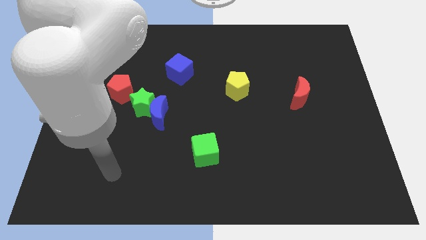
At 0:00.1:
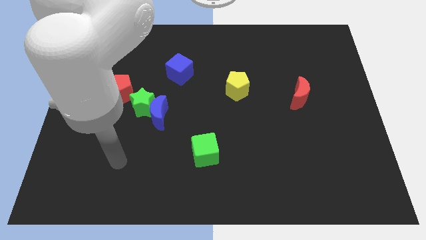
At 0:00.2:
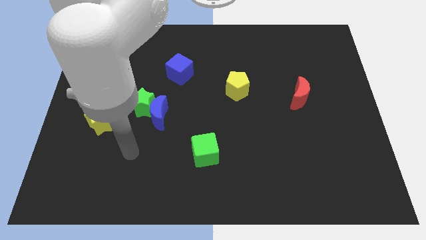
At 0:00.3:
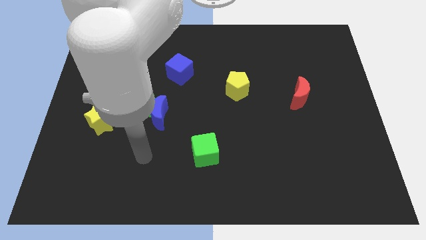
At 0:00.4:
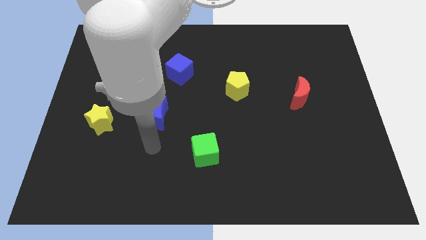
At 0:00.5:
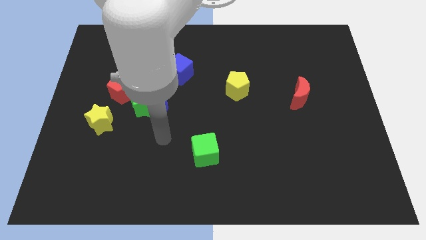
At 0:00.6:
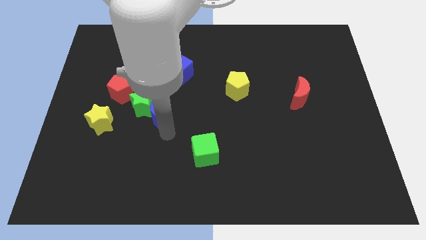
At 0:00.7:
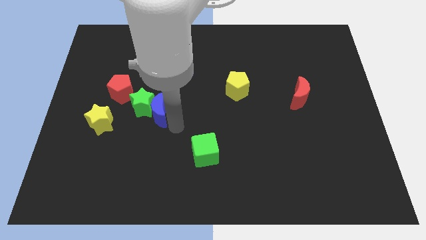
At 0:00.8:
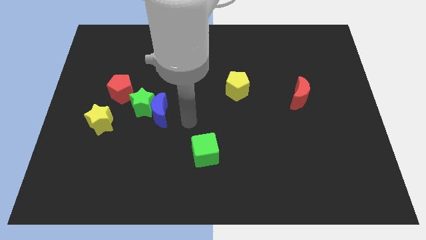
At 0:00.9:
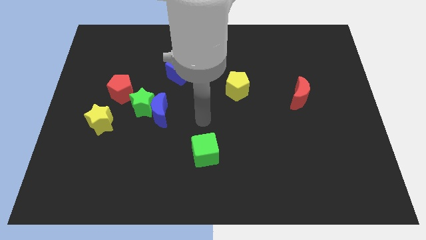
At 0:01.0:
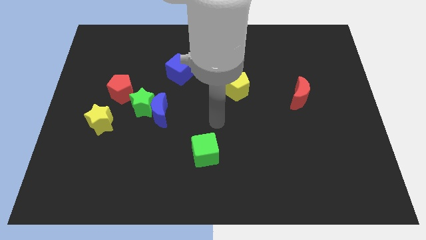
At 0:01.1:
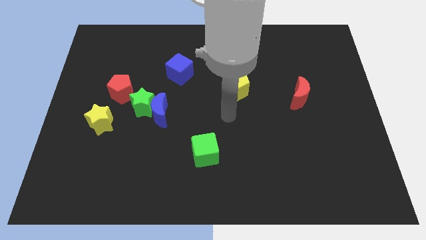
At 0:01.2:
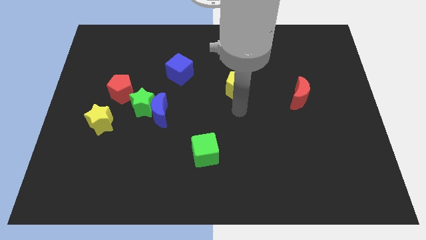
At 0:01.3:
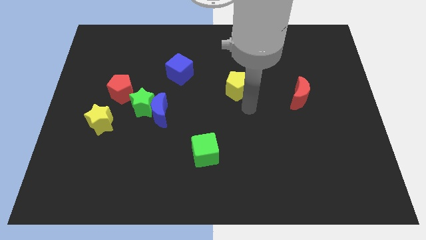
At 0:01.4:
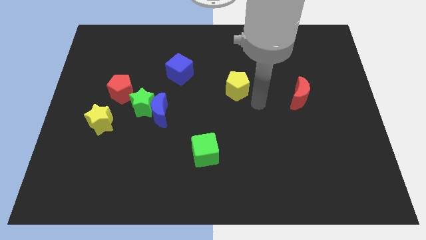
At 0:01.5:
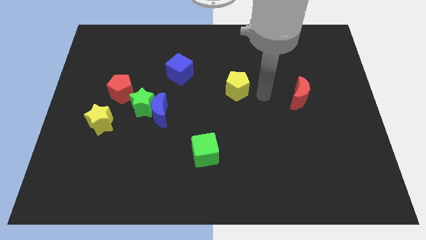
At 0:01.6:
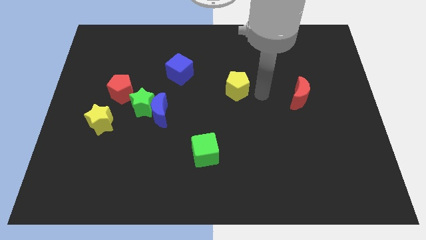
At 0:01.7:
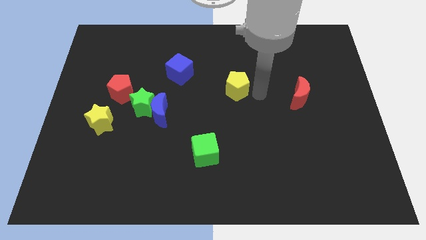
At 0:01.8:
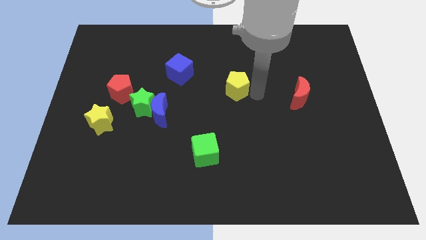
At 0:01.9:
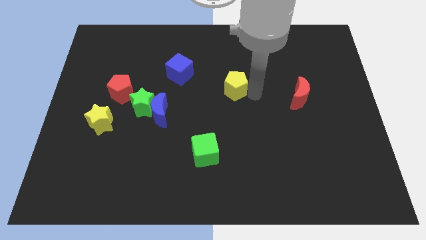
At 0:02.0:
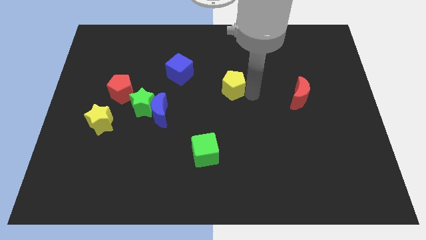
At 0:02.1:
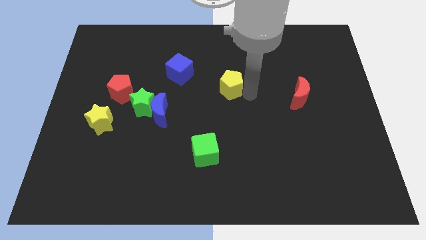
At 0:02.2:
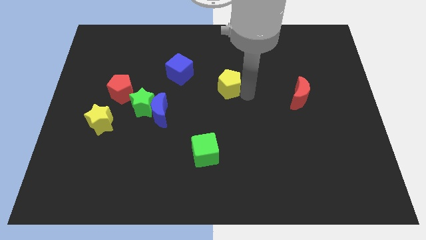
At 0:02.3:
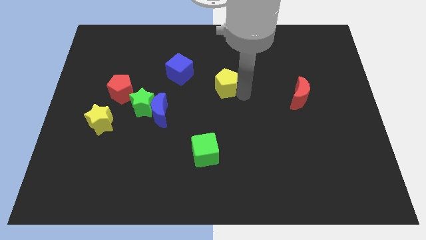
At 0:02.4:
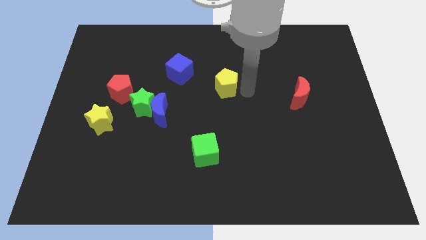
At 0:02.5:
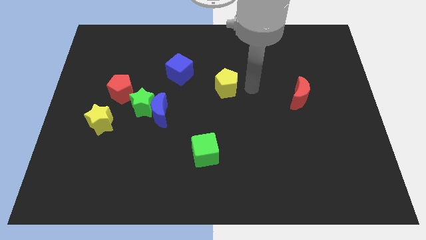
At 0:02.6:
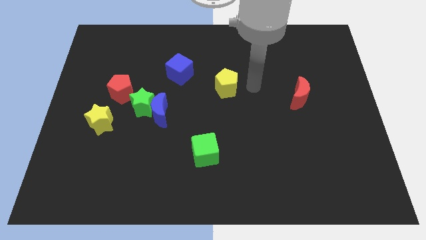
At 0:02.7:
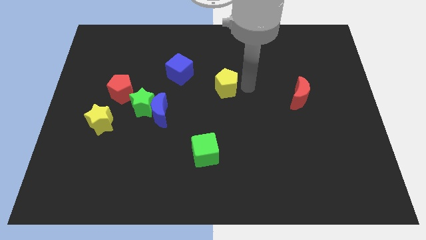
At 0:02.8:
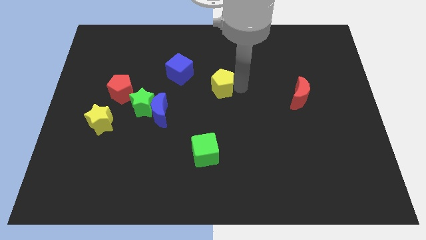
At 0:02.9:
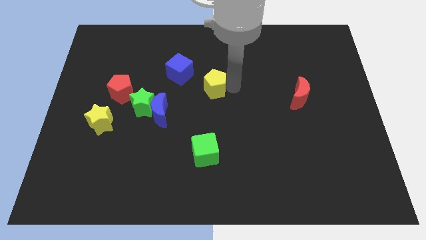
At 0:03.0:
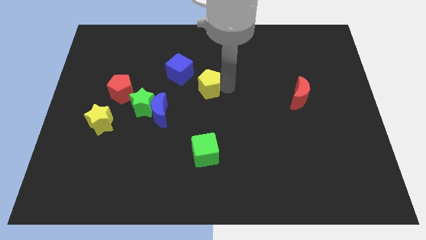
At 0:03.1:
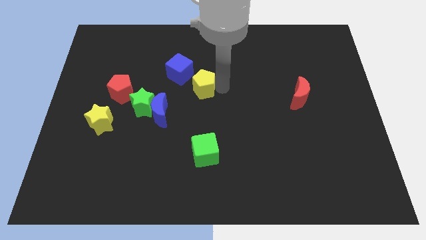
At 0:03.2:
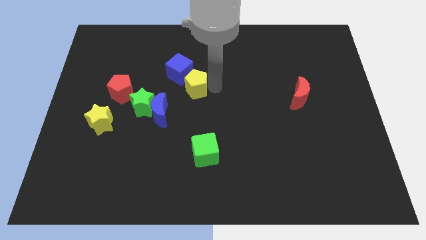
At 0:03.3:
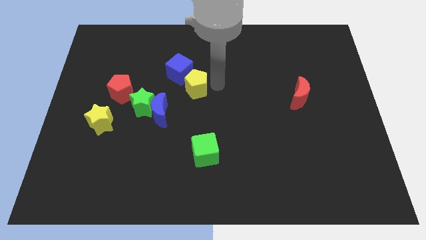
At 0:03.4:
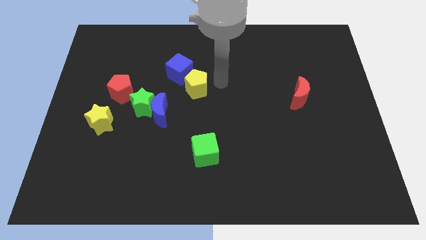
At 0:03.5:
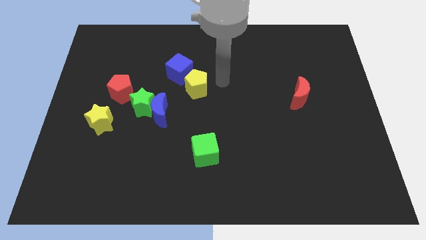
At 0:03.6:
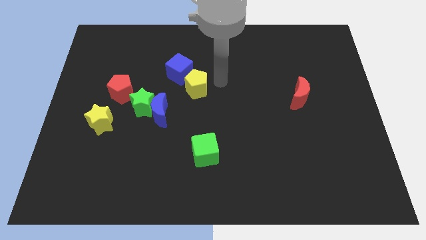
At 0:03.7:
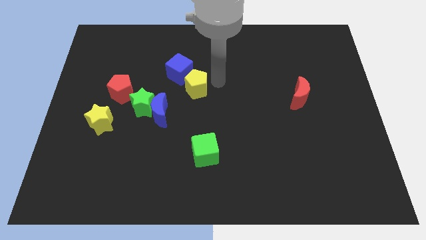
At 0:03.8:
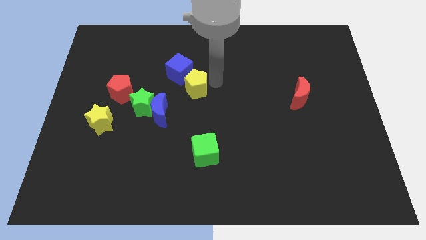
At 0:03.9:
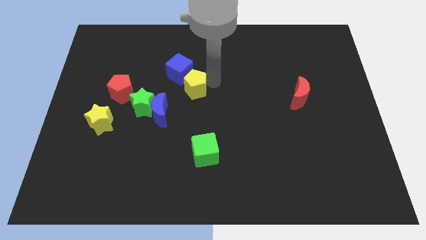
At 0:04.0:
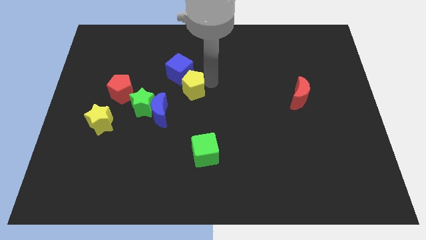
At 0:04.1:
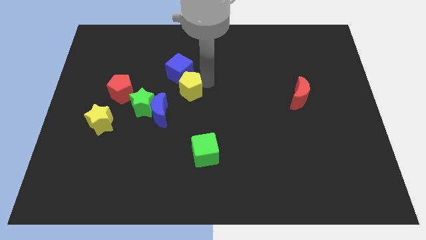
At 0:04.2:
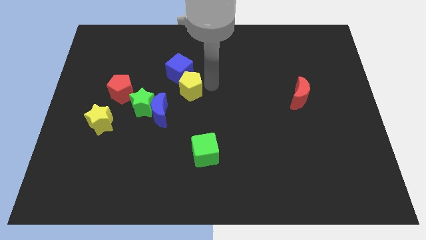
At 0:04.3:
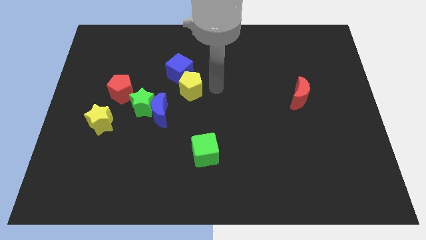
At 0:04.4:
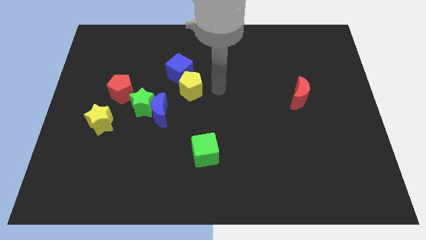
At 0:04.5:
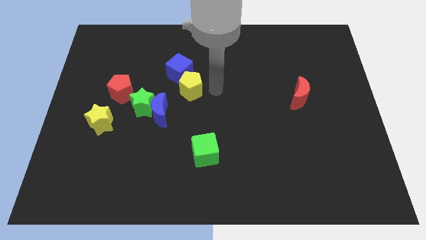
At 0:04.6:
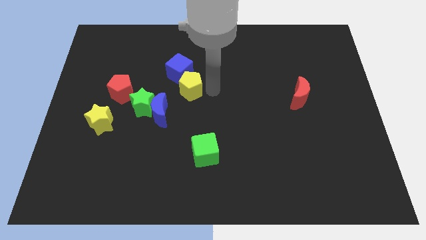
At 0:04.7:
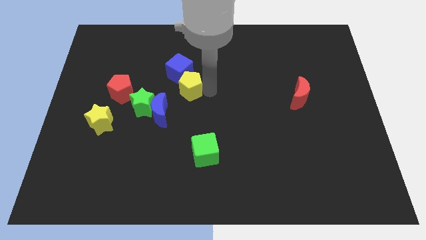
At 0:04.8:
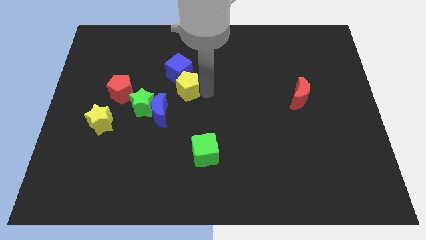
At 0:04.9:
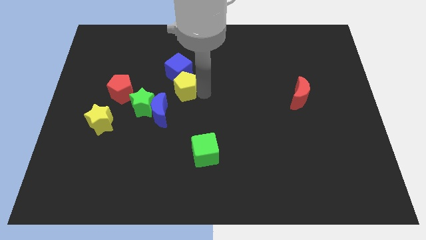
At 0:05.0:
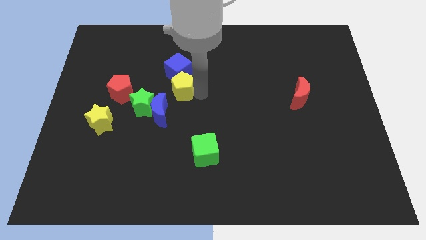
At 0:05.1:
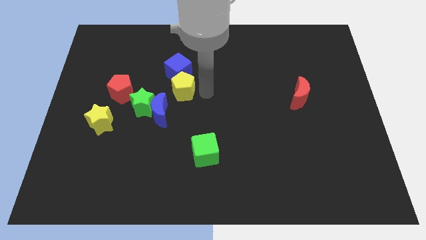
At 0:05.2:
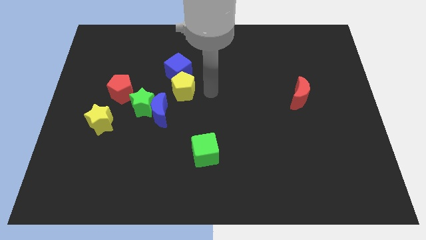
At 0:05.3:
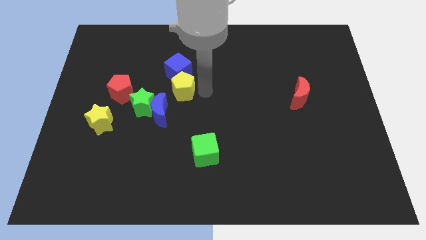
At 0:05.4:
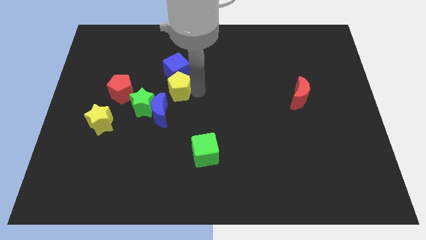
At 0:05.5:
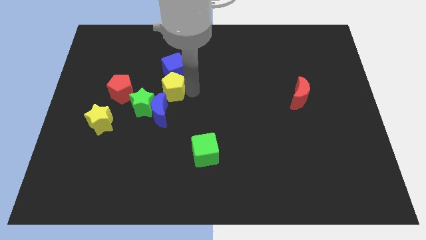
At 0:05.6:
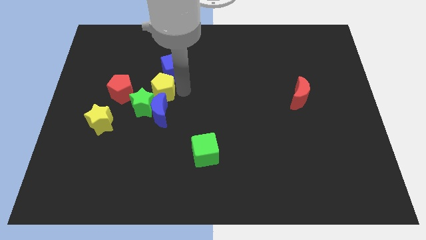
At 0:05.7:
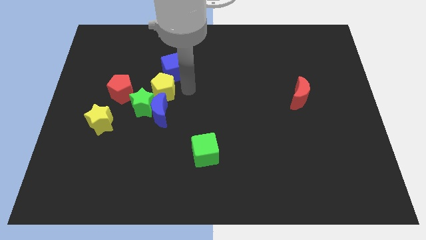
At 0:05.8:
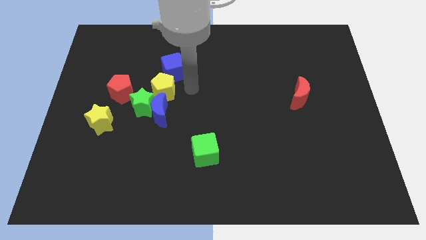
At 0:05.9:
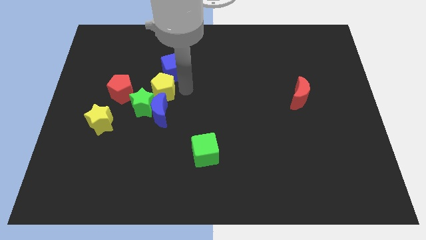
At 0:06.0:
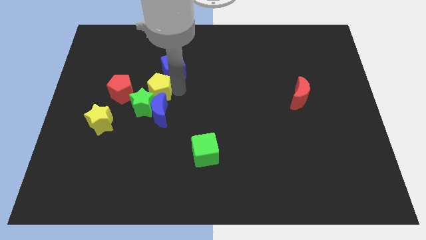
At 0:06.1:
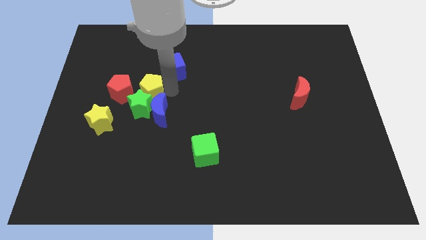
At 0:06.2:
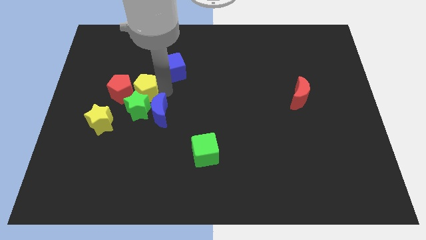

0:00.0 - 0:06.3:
put the yellow pentagon close to the red pentagon

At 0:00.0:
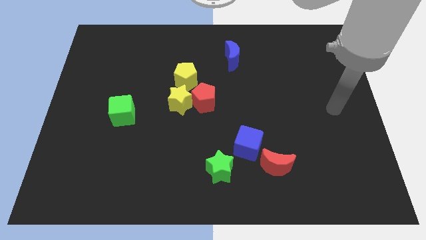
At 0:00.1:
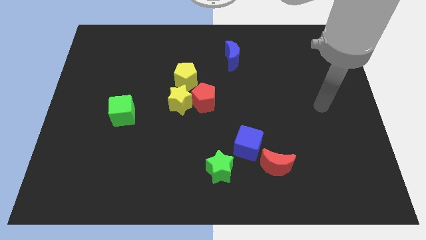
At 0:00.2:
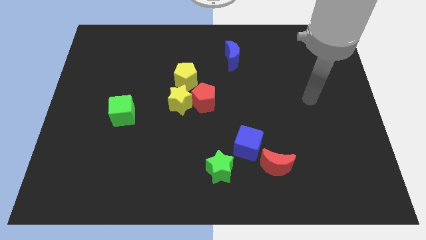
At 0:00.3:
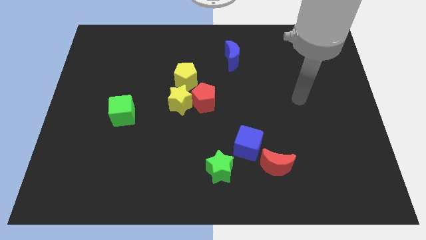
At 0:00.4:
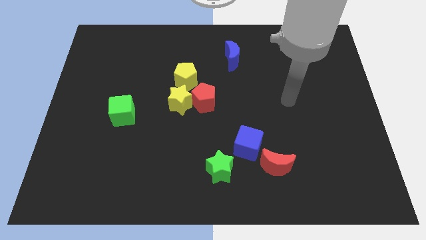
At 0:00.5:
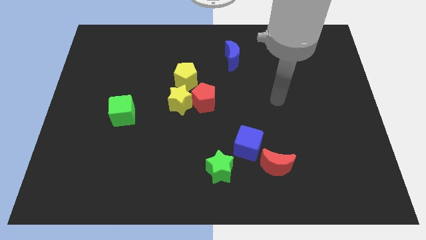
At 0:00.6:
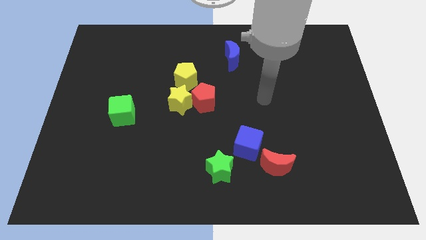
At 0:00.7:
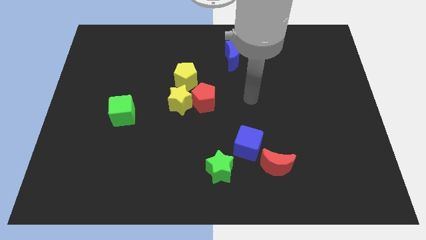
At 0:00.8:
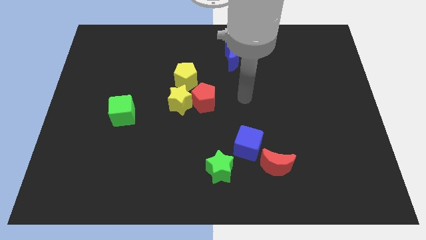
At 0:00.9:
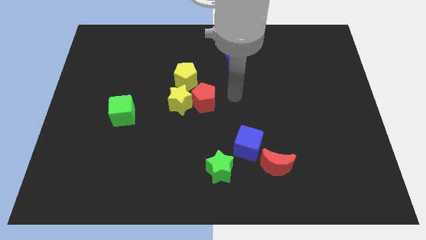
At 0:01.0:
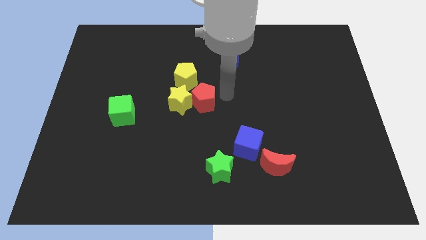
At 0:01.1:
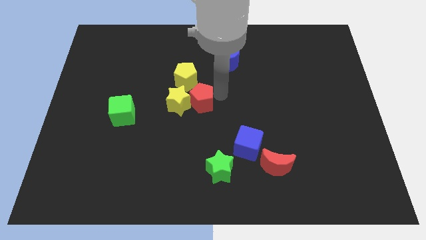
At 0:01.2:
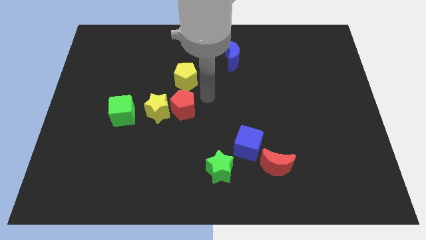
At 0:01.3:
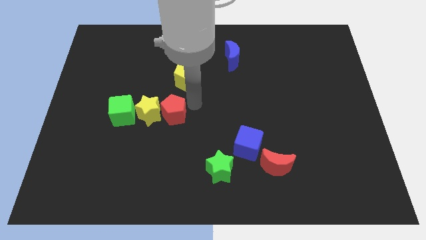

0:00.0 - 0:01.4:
push the yellow star close to the green cube
